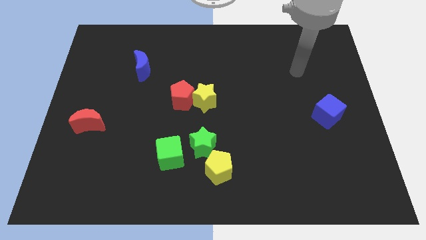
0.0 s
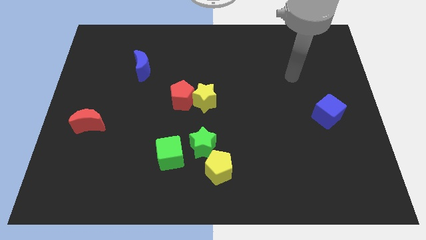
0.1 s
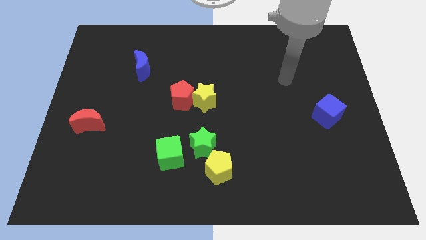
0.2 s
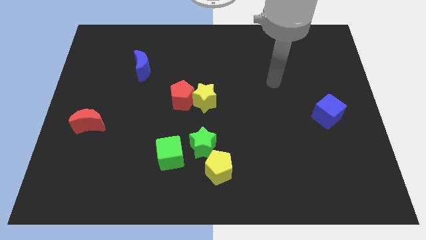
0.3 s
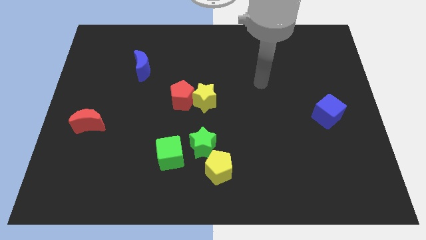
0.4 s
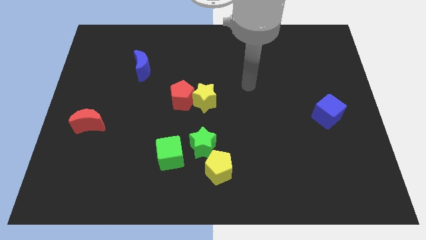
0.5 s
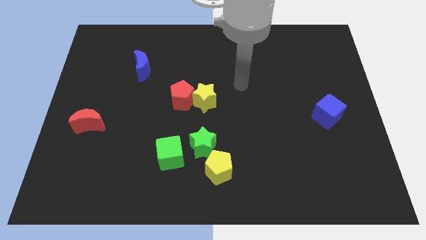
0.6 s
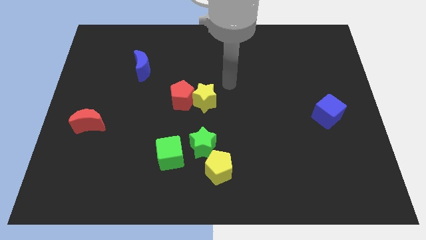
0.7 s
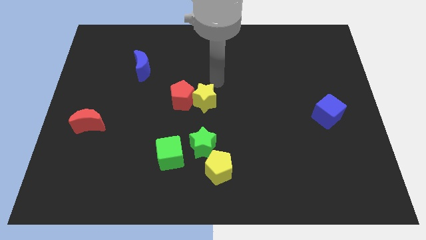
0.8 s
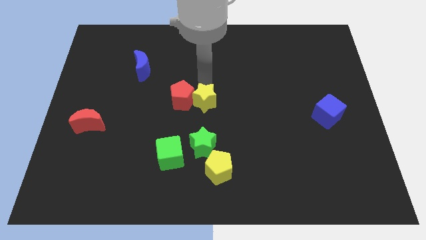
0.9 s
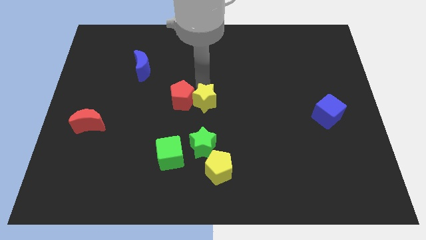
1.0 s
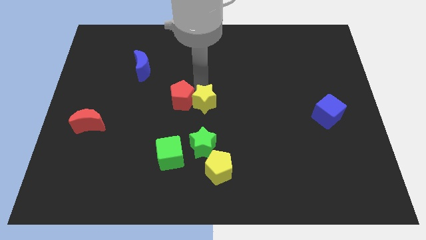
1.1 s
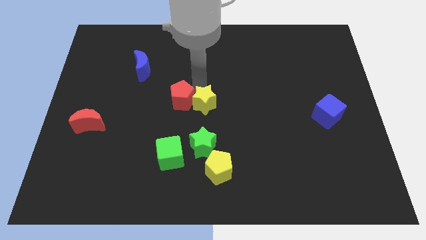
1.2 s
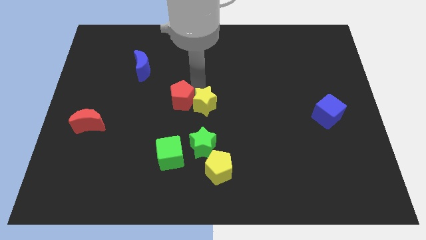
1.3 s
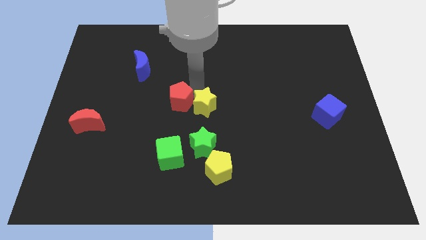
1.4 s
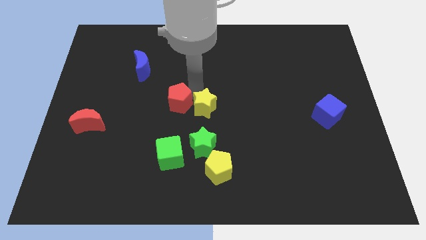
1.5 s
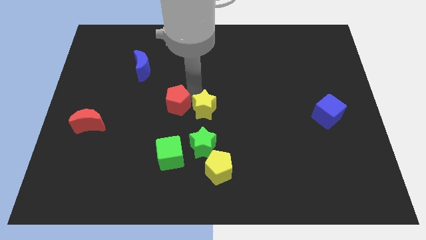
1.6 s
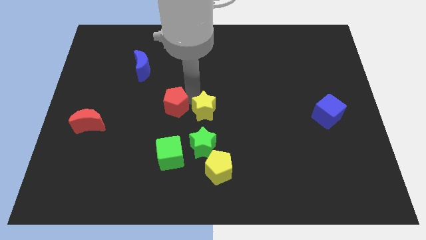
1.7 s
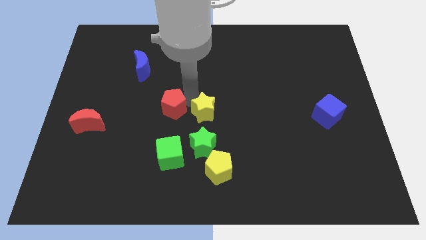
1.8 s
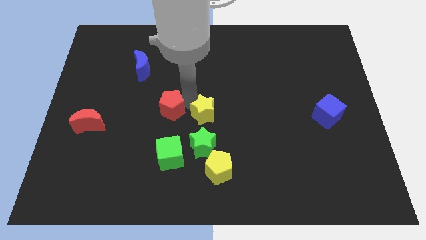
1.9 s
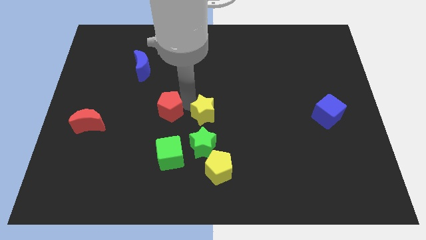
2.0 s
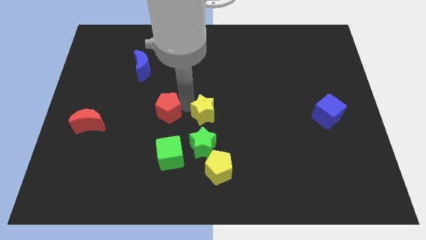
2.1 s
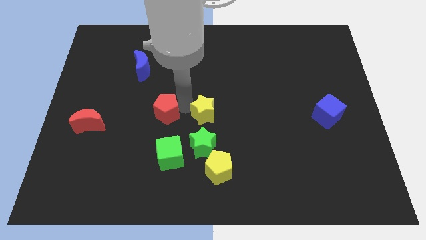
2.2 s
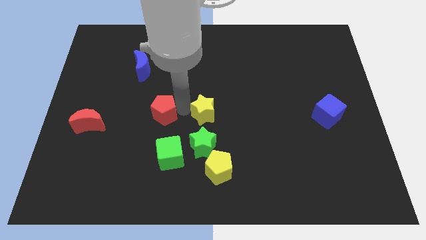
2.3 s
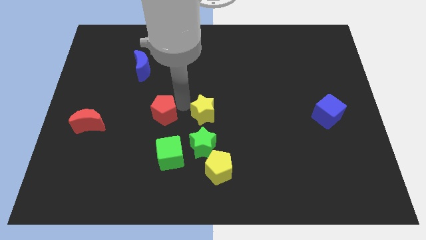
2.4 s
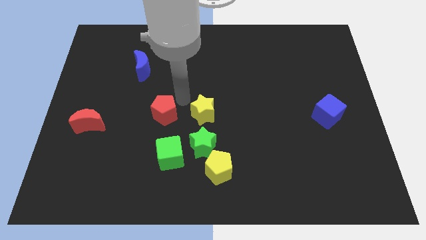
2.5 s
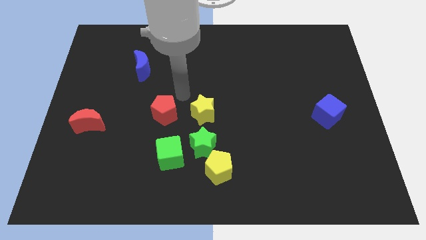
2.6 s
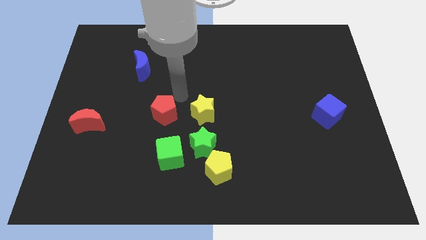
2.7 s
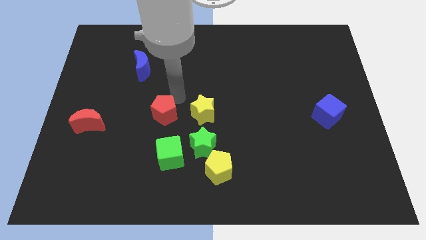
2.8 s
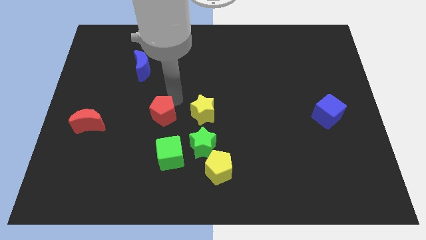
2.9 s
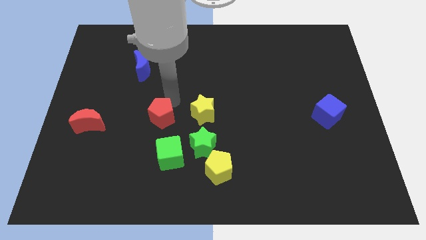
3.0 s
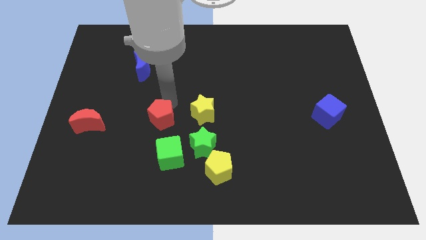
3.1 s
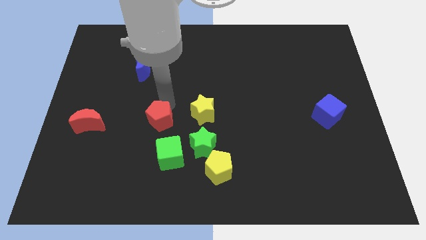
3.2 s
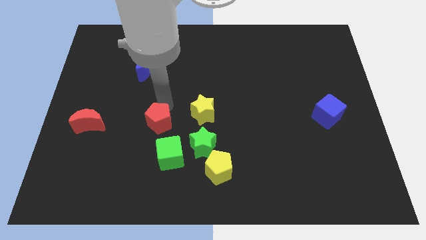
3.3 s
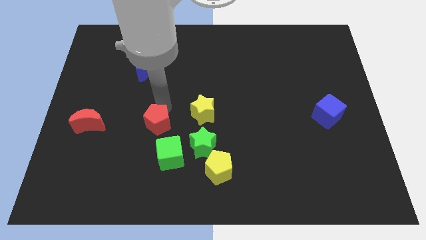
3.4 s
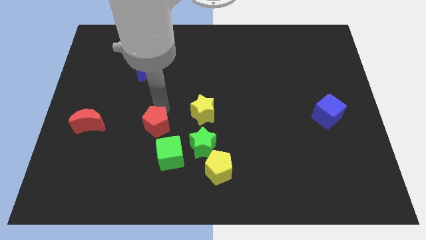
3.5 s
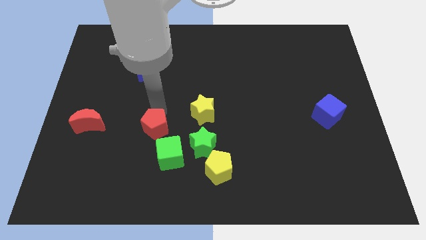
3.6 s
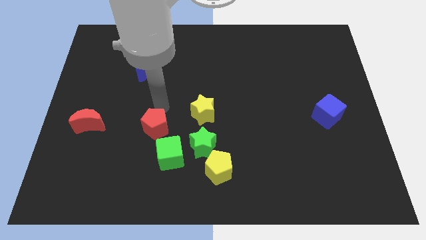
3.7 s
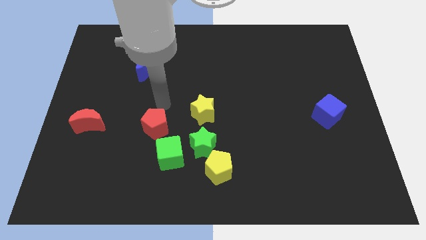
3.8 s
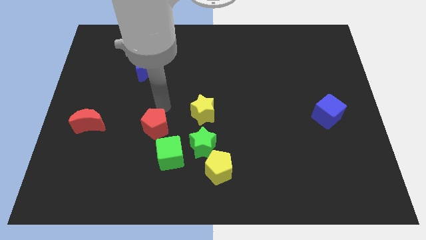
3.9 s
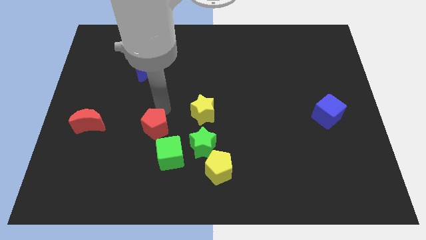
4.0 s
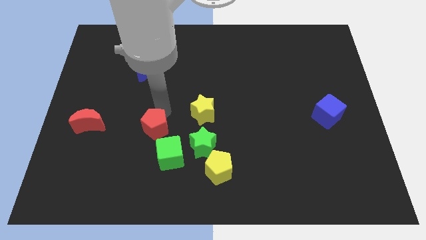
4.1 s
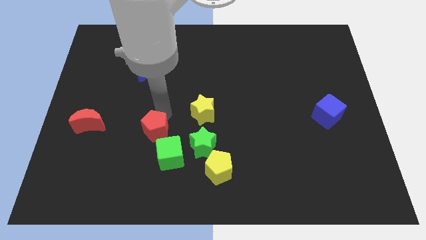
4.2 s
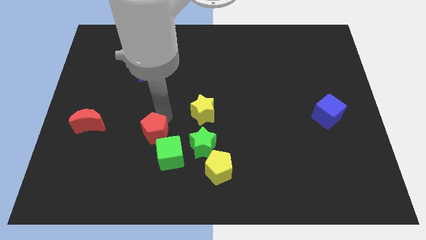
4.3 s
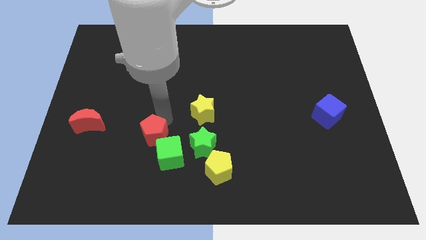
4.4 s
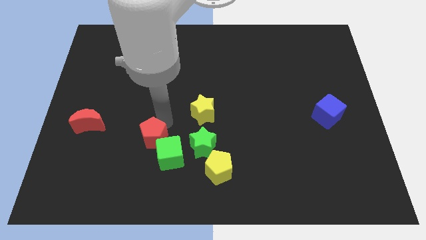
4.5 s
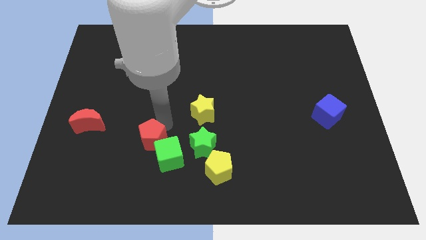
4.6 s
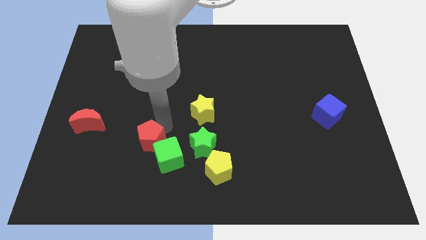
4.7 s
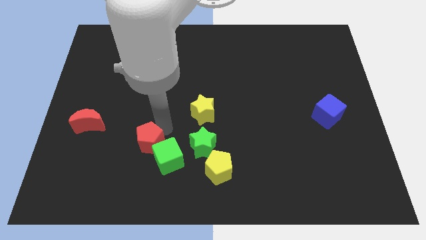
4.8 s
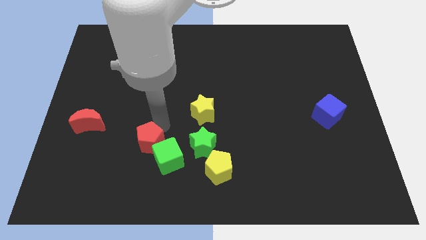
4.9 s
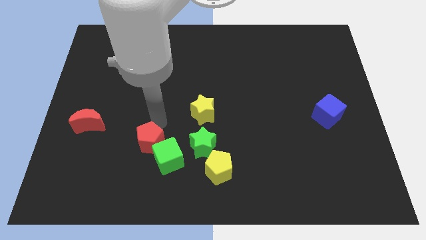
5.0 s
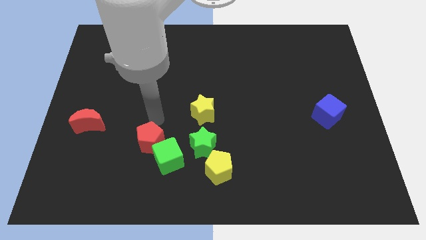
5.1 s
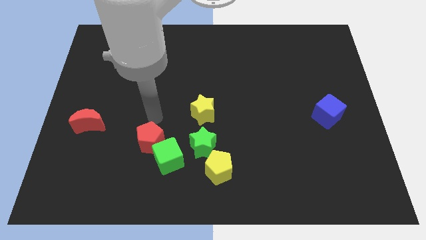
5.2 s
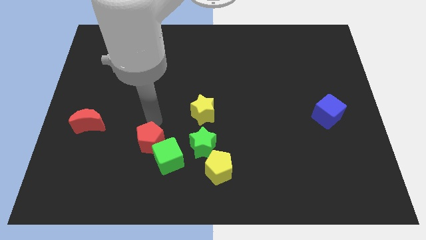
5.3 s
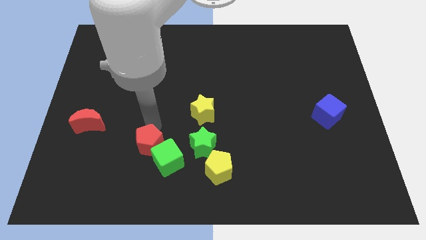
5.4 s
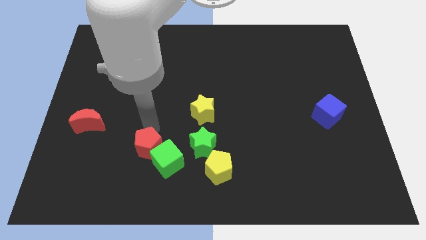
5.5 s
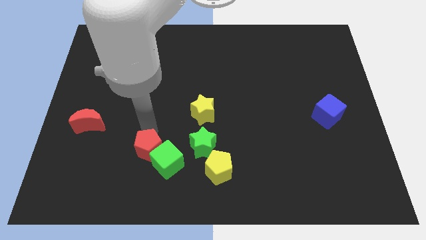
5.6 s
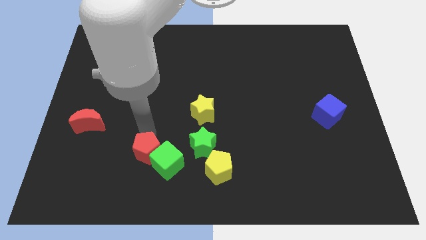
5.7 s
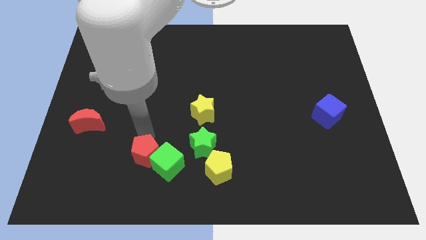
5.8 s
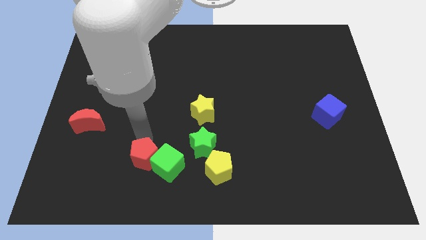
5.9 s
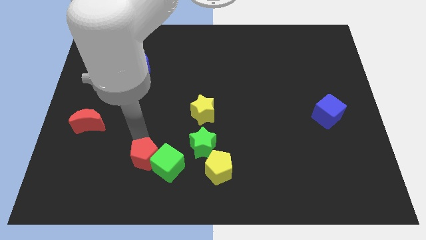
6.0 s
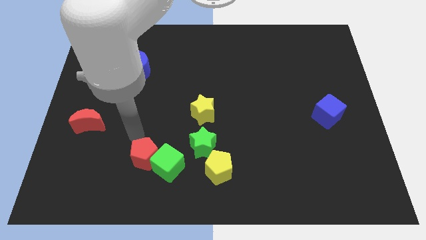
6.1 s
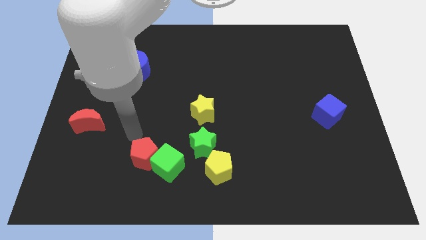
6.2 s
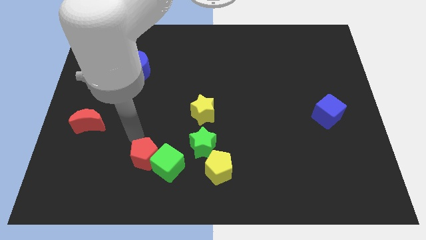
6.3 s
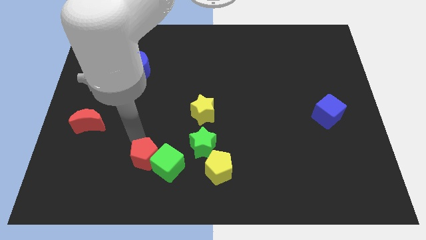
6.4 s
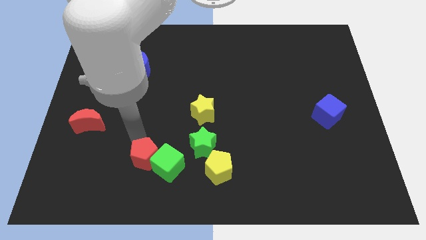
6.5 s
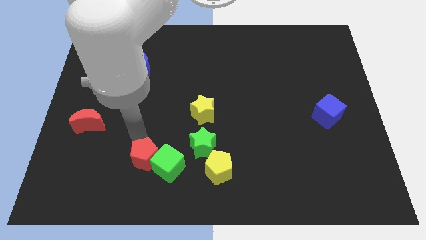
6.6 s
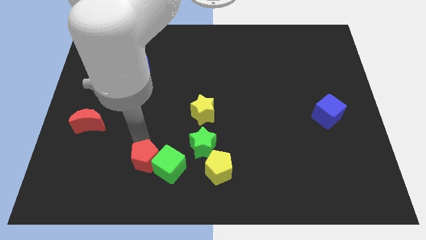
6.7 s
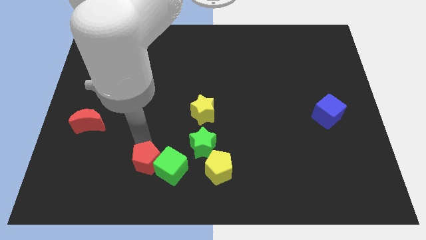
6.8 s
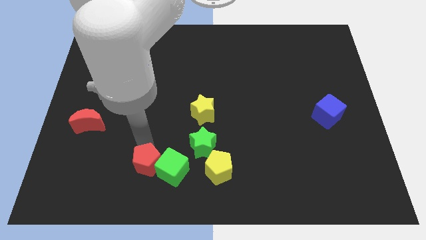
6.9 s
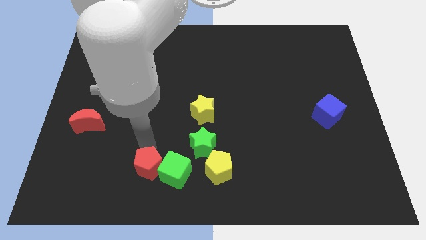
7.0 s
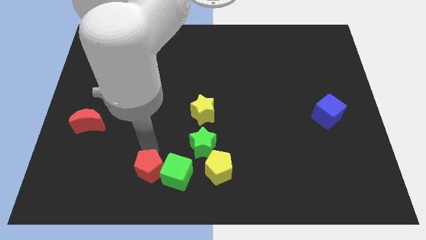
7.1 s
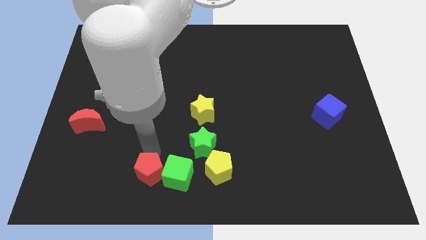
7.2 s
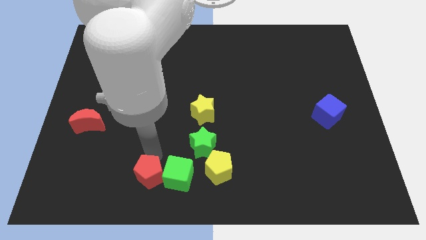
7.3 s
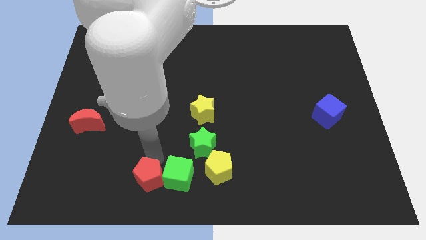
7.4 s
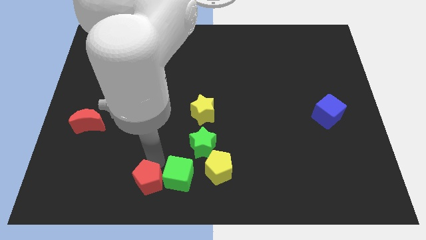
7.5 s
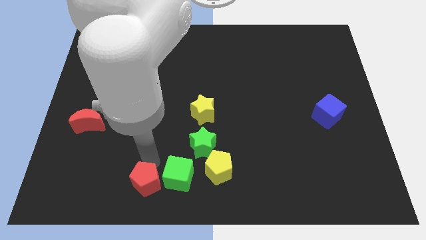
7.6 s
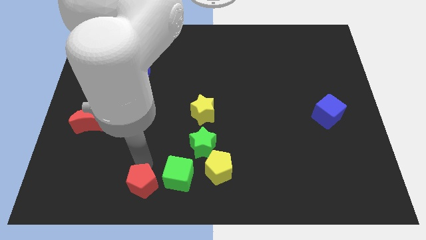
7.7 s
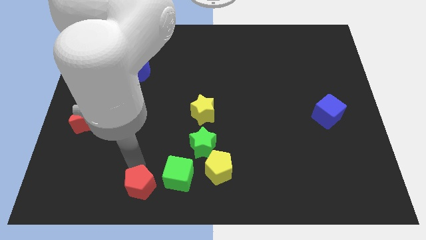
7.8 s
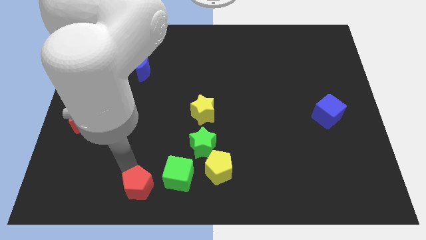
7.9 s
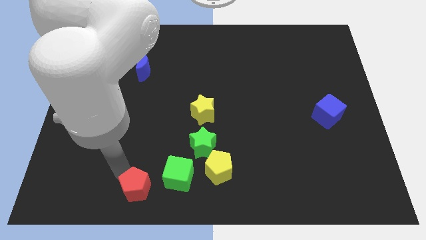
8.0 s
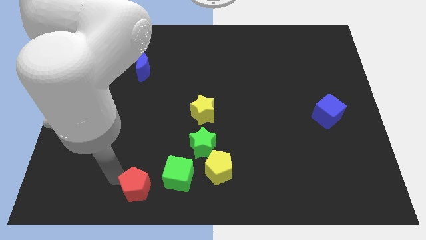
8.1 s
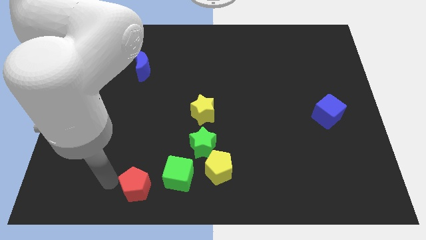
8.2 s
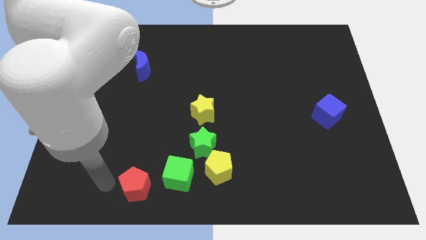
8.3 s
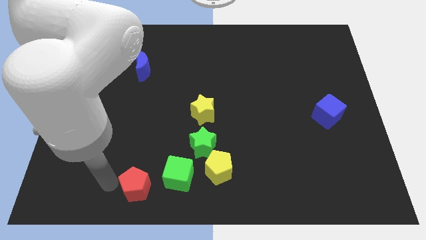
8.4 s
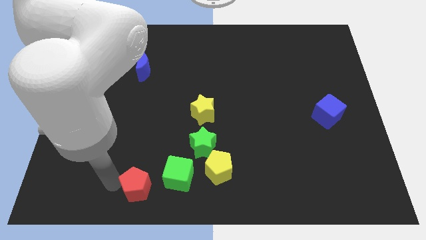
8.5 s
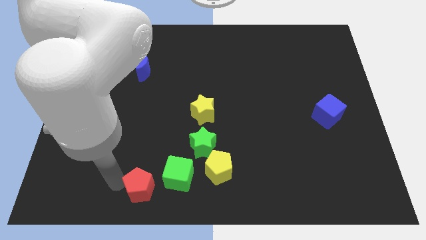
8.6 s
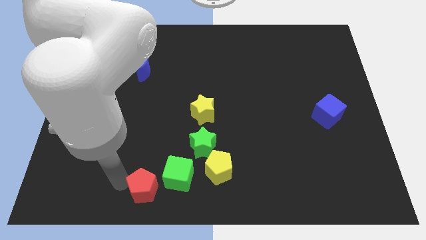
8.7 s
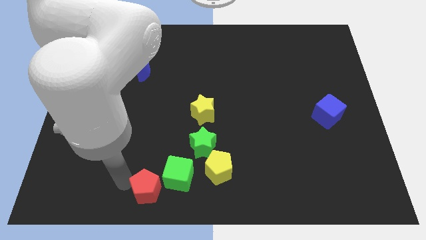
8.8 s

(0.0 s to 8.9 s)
push the red pentagon to the bottom side
